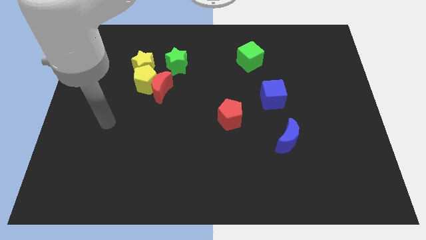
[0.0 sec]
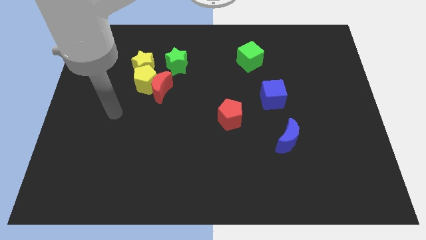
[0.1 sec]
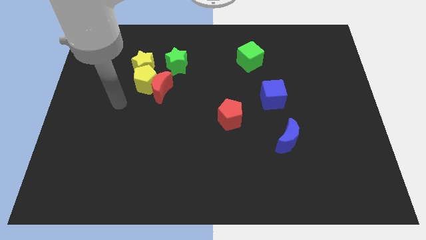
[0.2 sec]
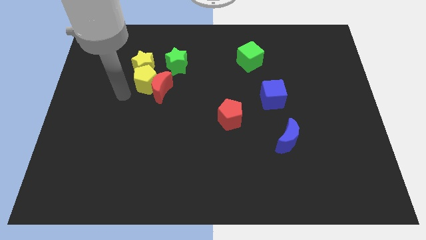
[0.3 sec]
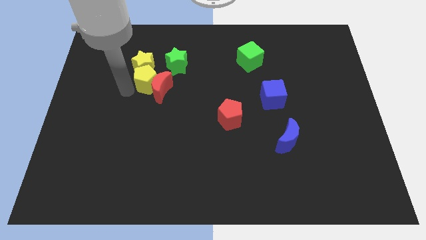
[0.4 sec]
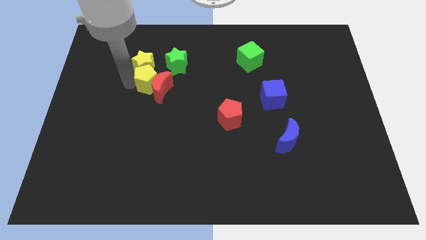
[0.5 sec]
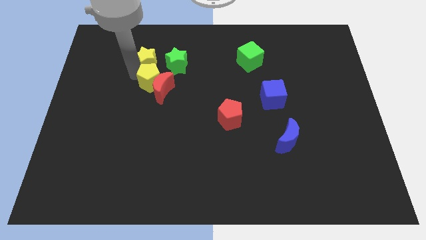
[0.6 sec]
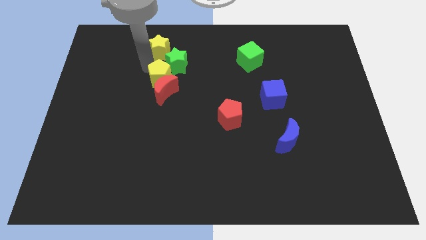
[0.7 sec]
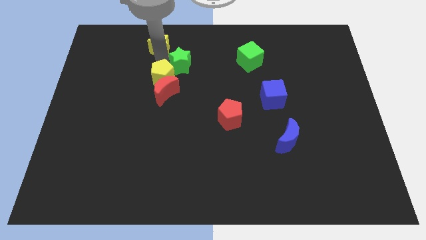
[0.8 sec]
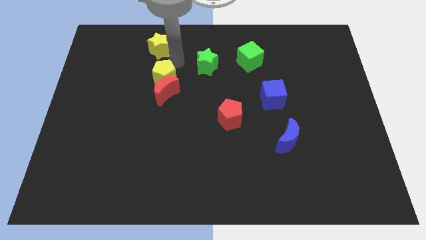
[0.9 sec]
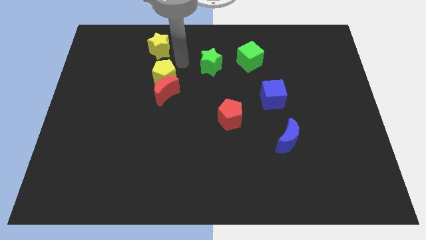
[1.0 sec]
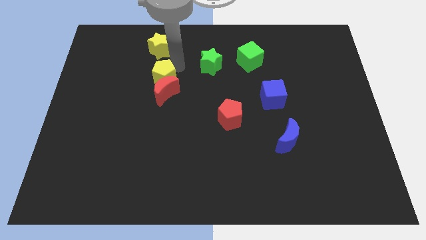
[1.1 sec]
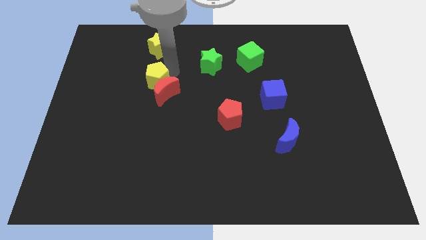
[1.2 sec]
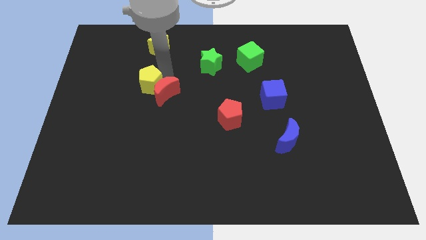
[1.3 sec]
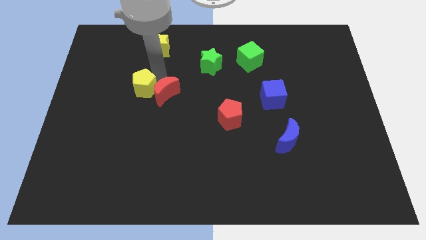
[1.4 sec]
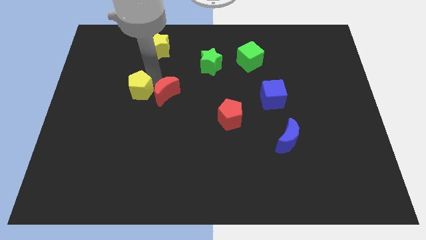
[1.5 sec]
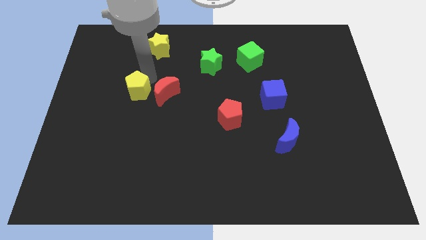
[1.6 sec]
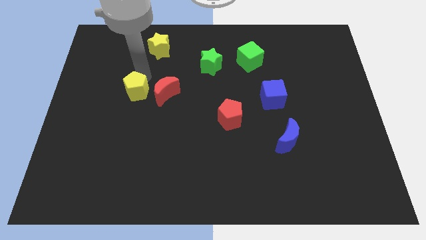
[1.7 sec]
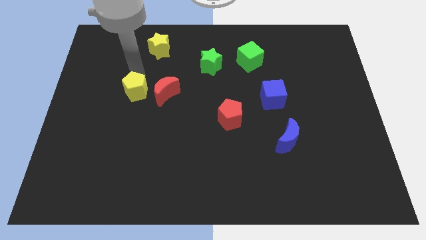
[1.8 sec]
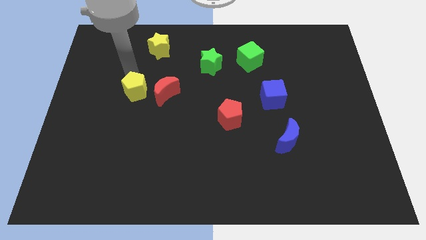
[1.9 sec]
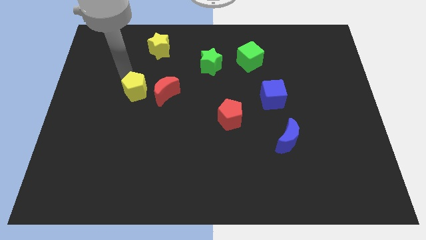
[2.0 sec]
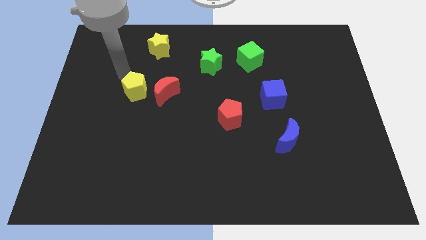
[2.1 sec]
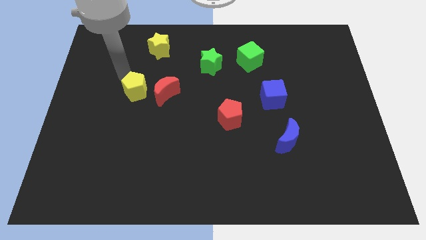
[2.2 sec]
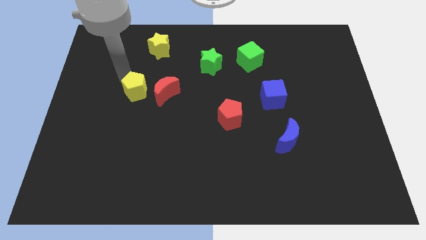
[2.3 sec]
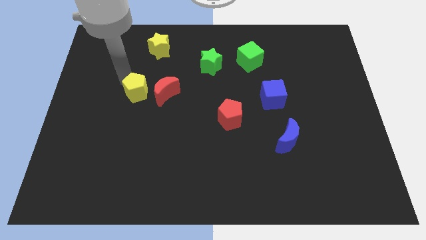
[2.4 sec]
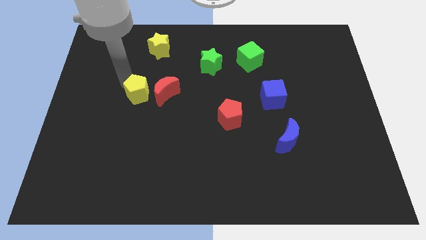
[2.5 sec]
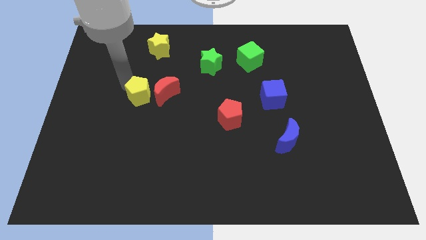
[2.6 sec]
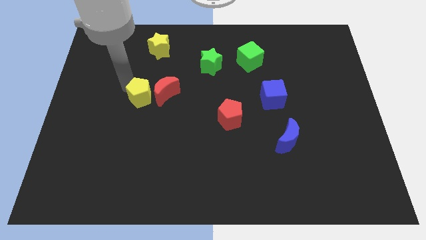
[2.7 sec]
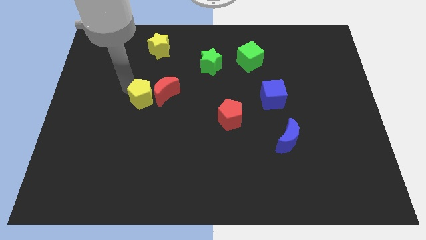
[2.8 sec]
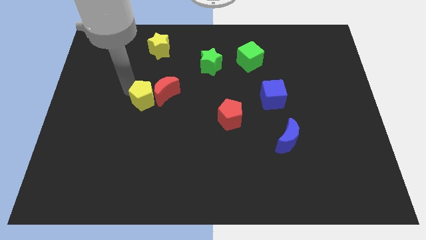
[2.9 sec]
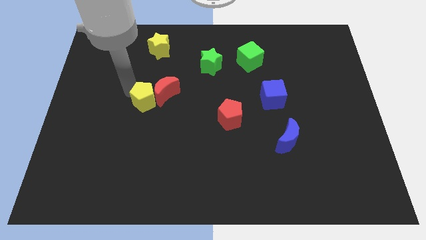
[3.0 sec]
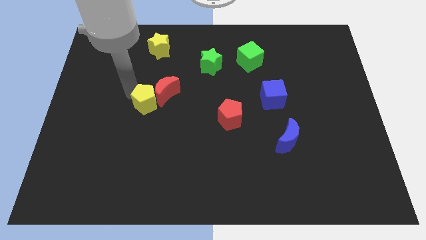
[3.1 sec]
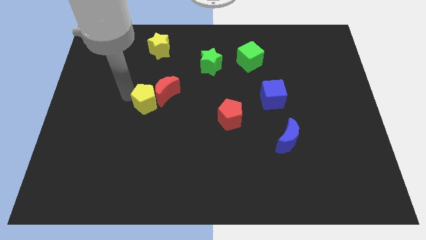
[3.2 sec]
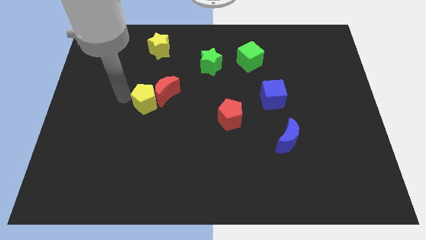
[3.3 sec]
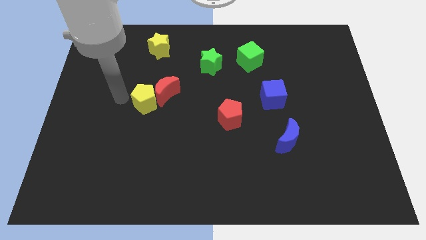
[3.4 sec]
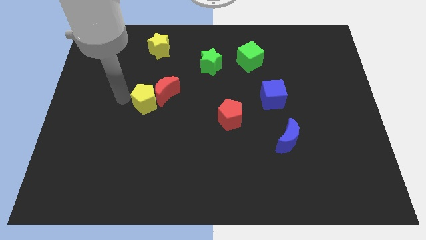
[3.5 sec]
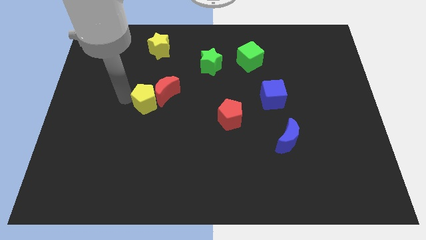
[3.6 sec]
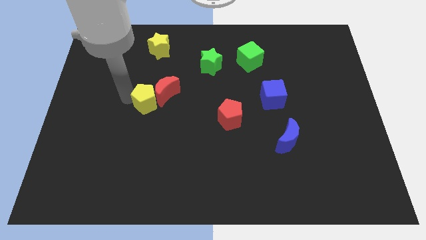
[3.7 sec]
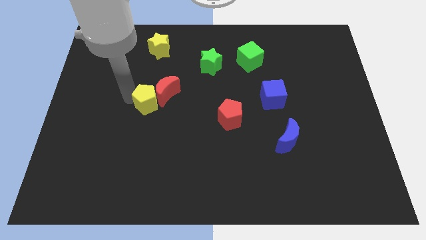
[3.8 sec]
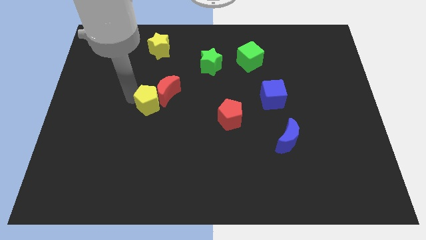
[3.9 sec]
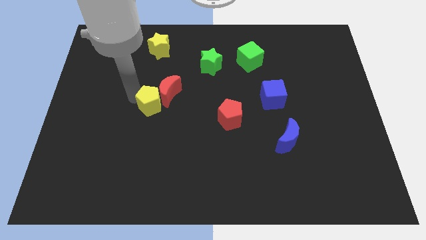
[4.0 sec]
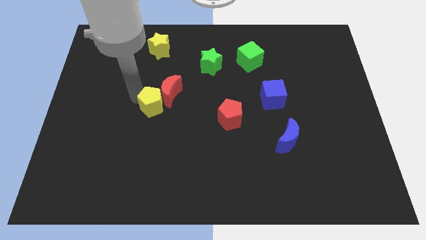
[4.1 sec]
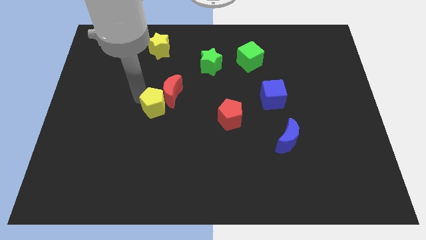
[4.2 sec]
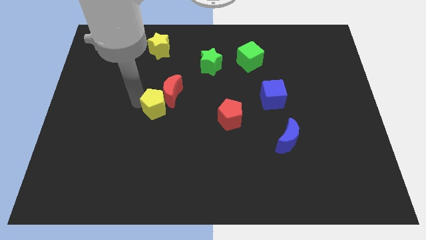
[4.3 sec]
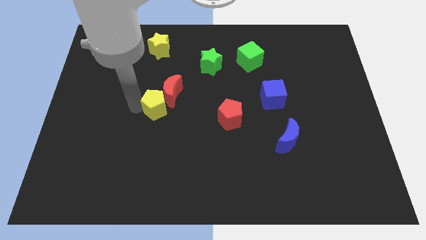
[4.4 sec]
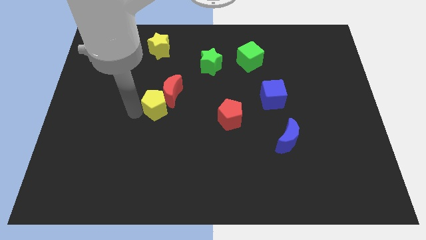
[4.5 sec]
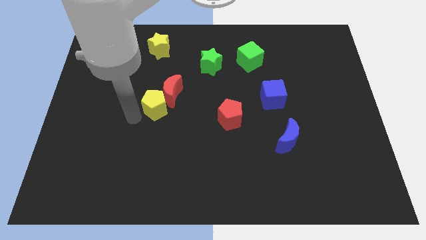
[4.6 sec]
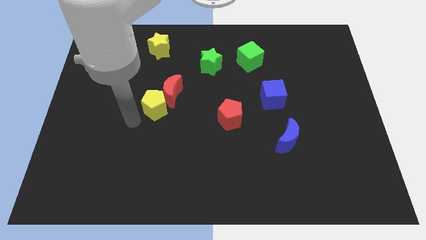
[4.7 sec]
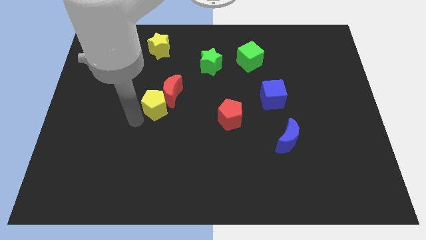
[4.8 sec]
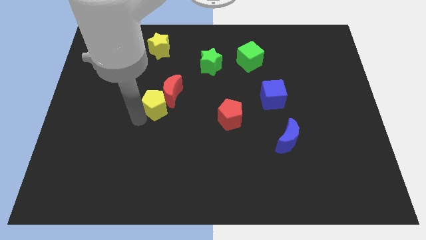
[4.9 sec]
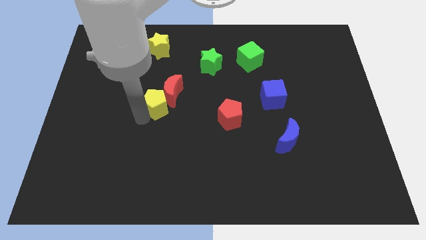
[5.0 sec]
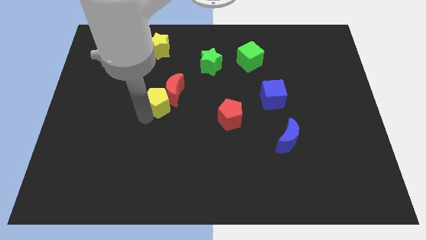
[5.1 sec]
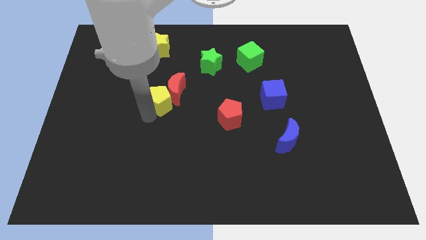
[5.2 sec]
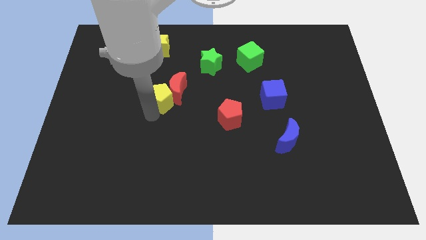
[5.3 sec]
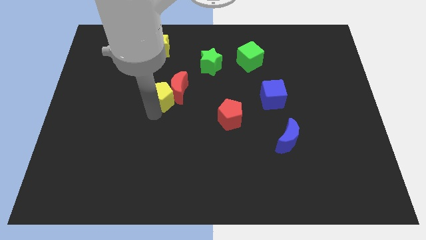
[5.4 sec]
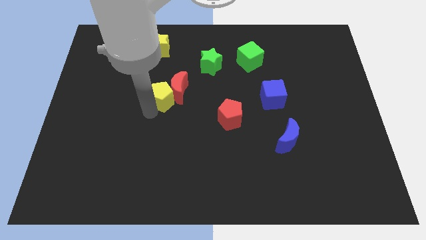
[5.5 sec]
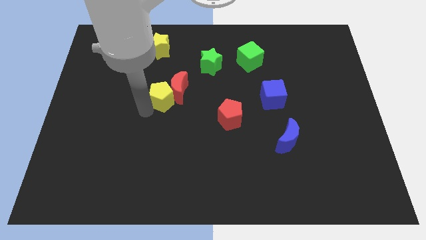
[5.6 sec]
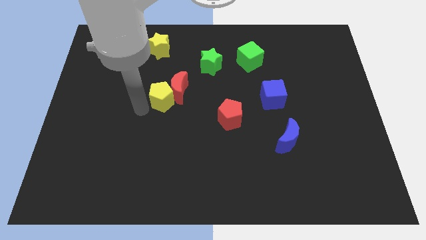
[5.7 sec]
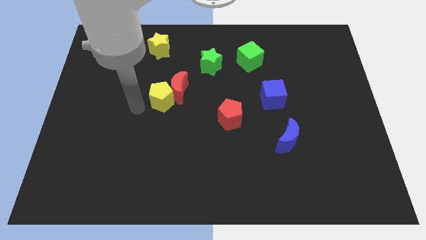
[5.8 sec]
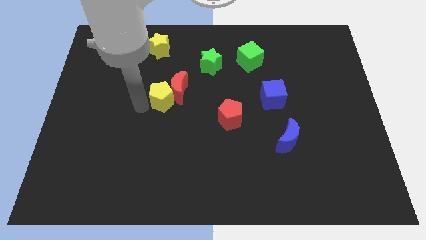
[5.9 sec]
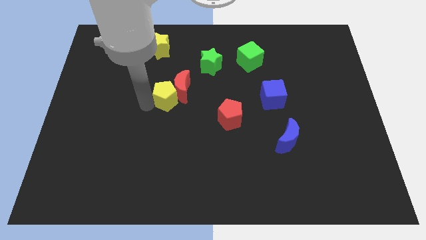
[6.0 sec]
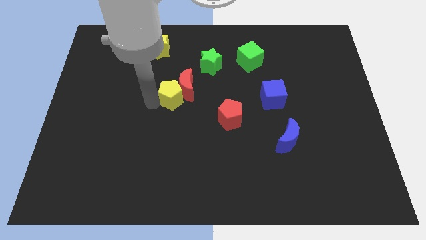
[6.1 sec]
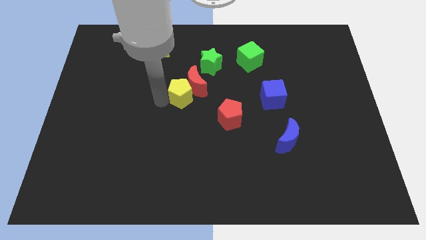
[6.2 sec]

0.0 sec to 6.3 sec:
move the yellow pentagon right a little

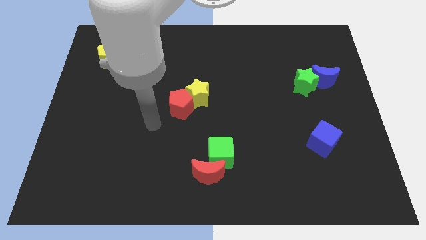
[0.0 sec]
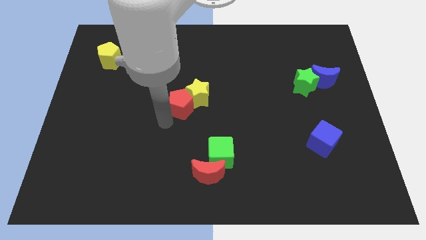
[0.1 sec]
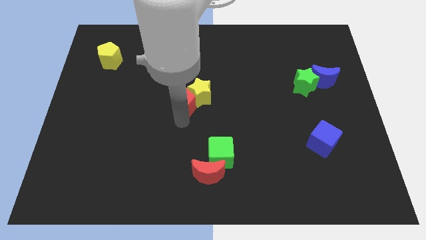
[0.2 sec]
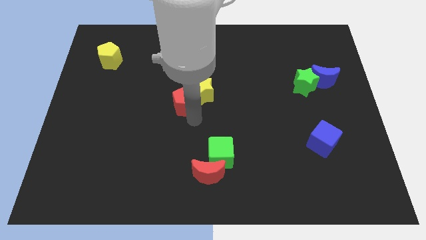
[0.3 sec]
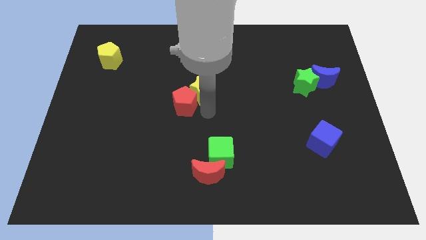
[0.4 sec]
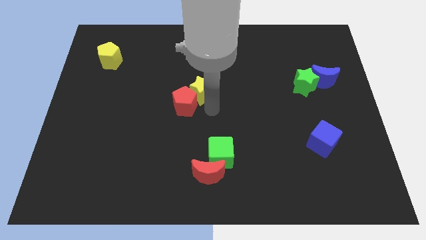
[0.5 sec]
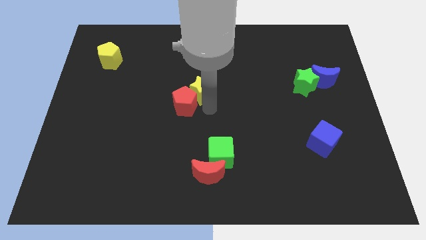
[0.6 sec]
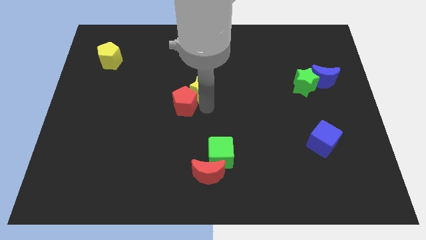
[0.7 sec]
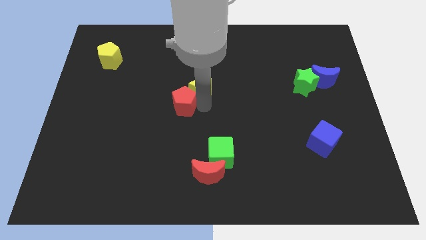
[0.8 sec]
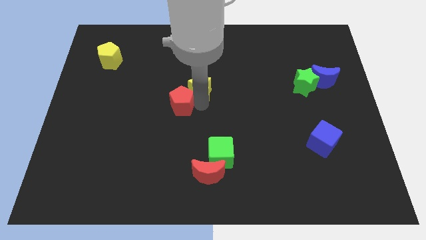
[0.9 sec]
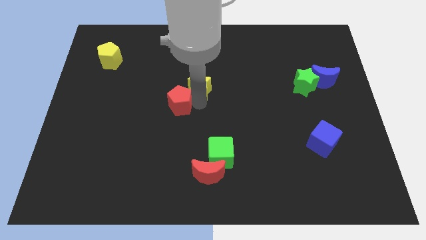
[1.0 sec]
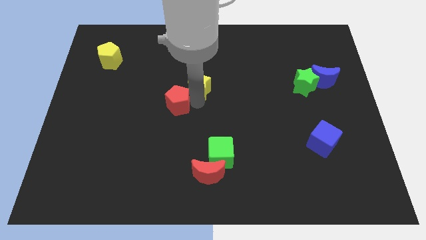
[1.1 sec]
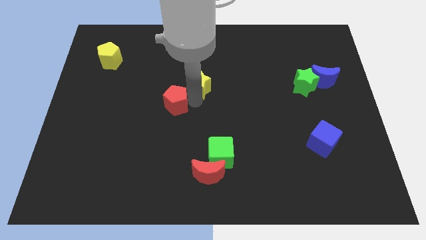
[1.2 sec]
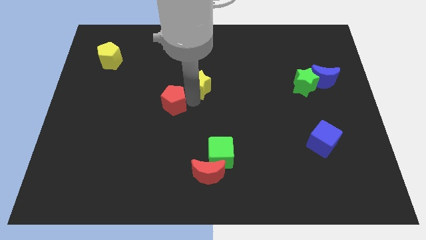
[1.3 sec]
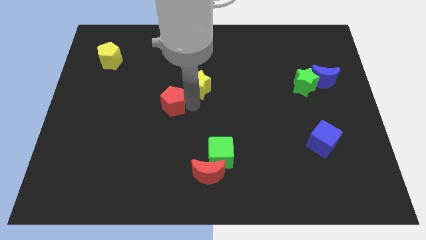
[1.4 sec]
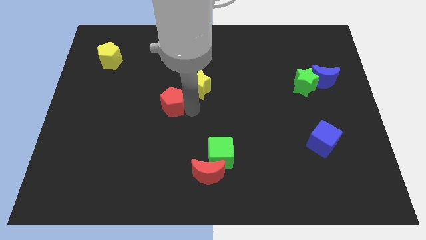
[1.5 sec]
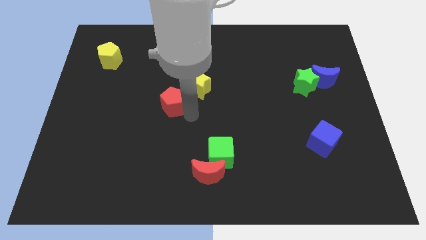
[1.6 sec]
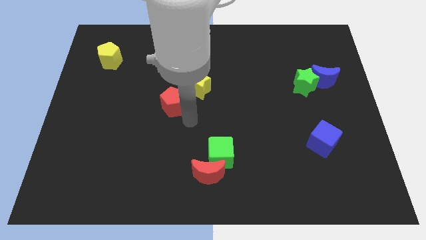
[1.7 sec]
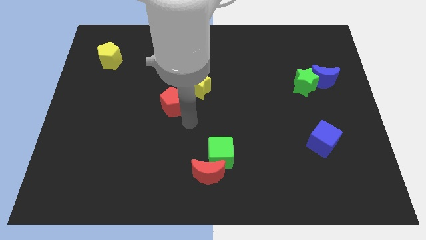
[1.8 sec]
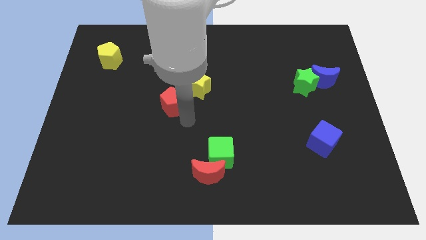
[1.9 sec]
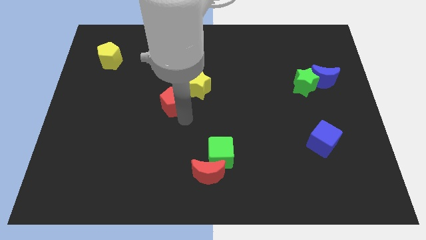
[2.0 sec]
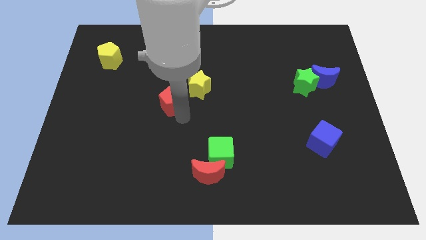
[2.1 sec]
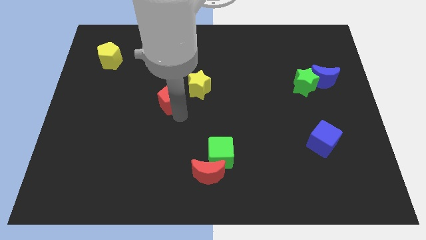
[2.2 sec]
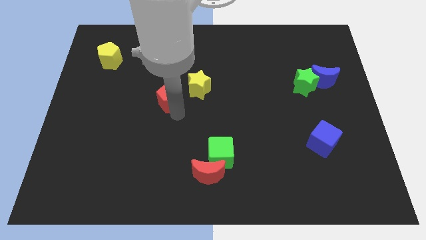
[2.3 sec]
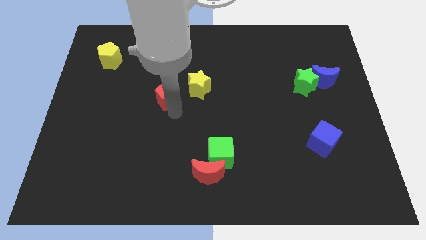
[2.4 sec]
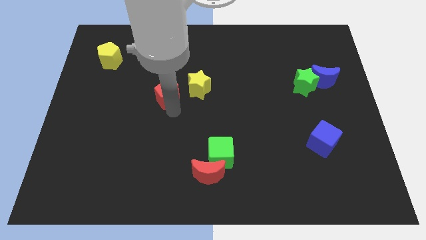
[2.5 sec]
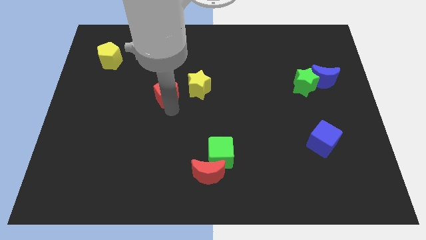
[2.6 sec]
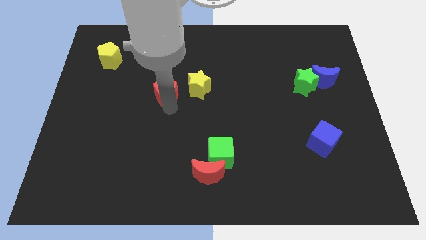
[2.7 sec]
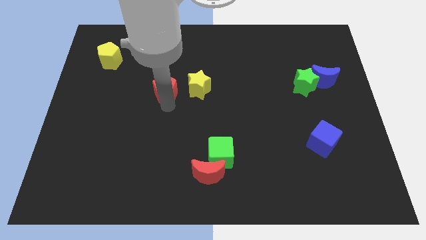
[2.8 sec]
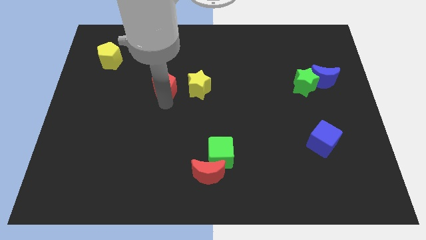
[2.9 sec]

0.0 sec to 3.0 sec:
move the red pentagon diagonally upwards and to the left slightly
